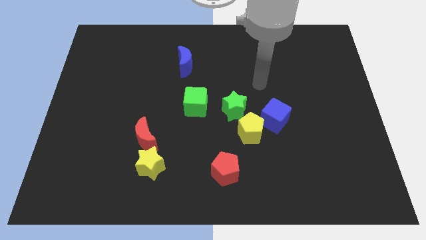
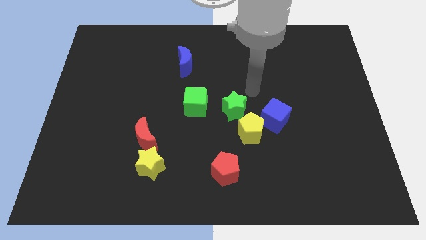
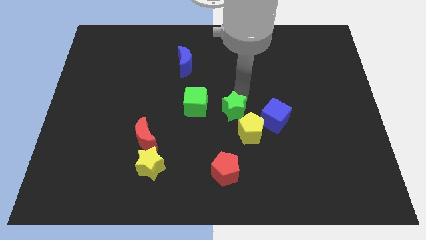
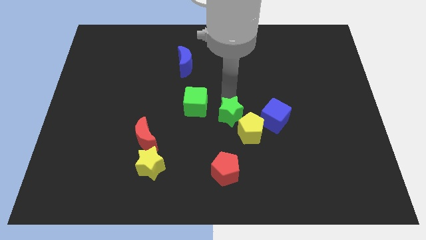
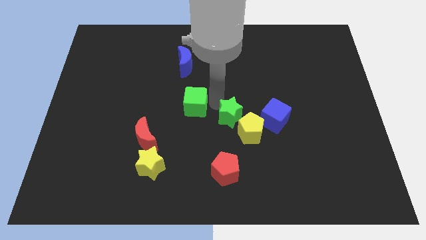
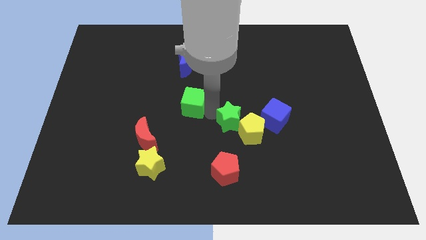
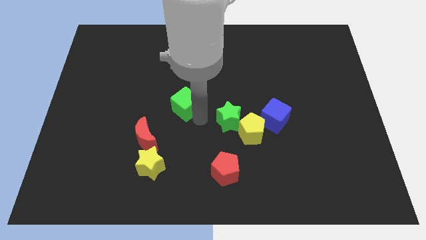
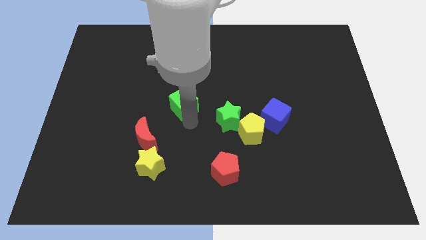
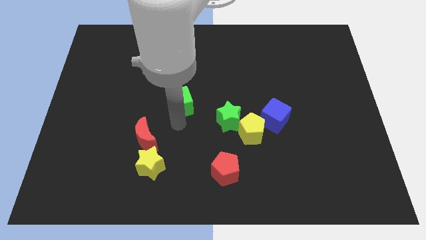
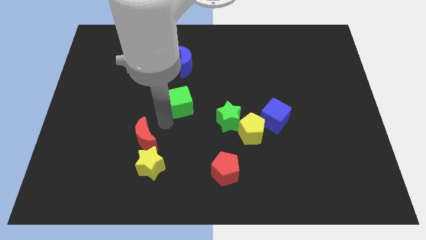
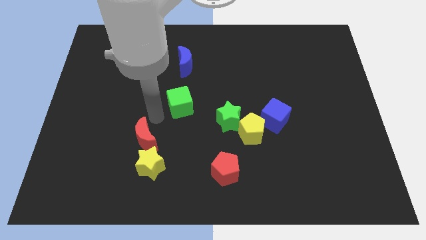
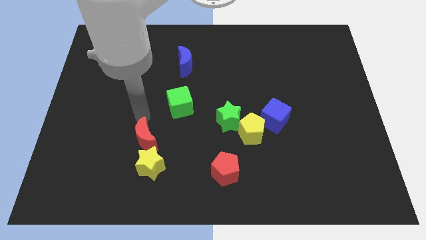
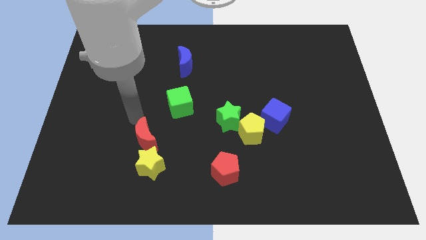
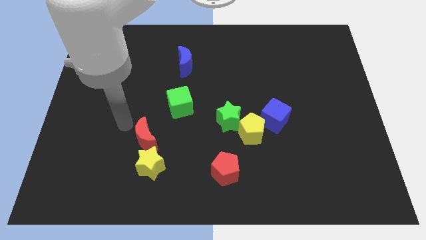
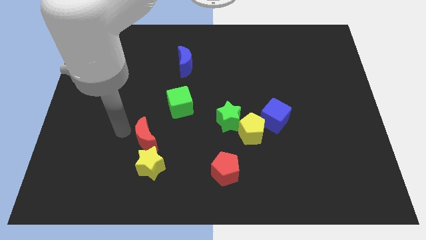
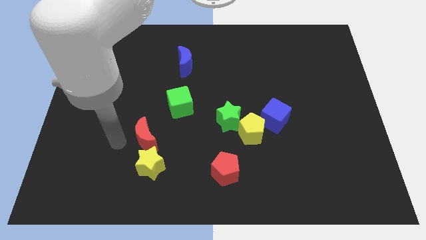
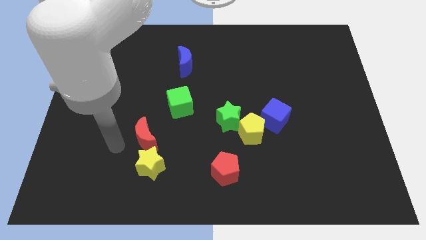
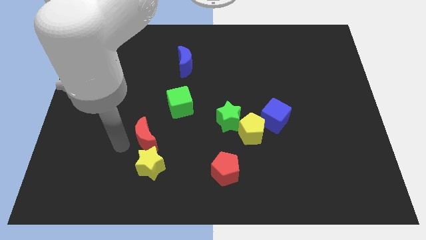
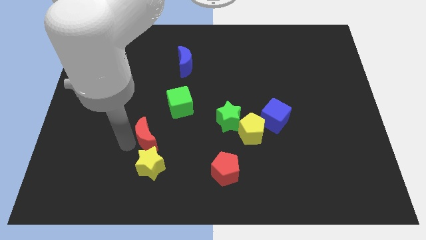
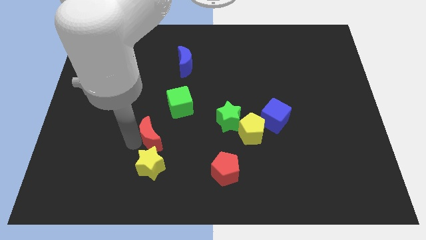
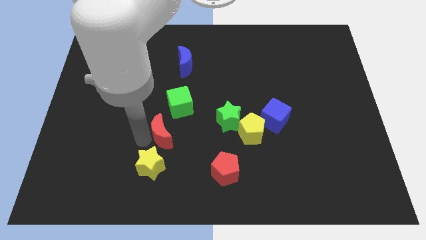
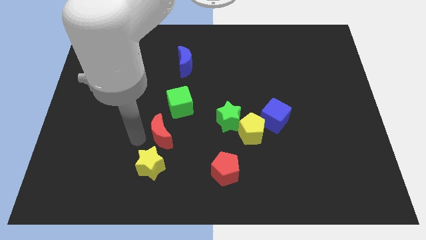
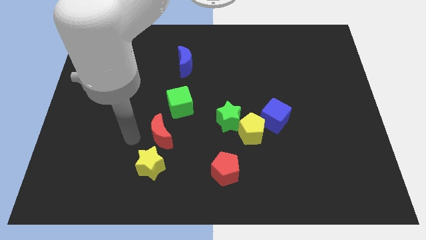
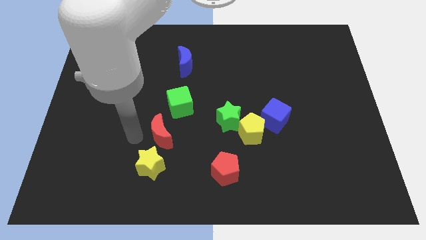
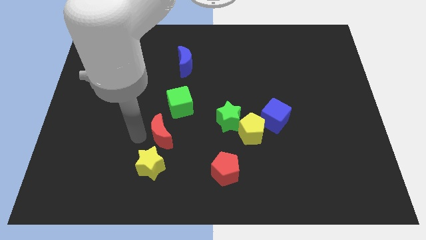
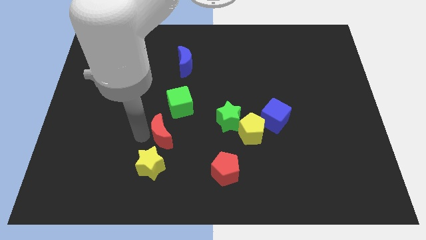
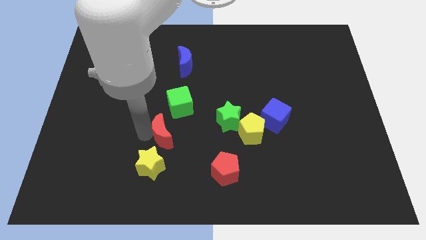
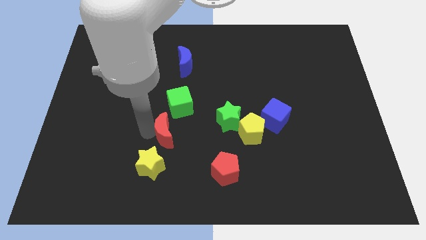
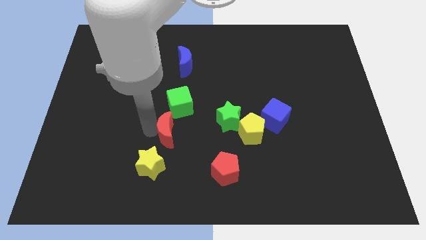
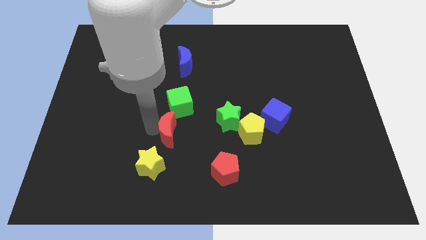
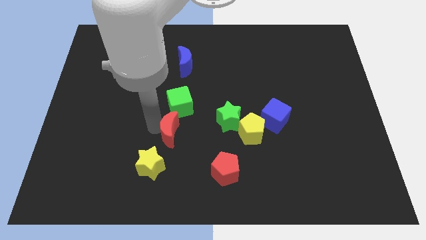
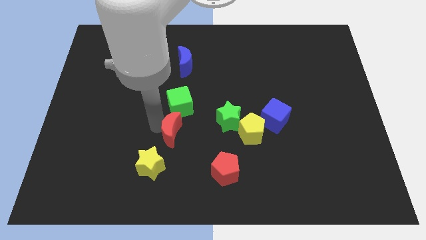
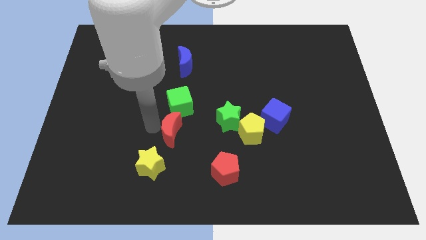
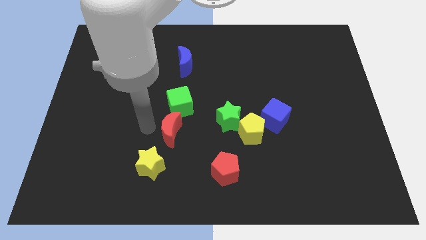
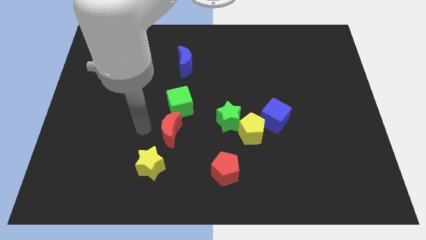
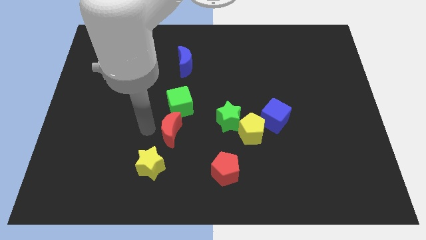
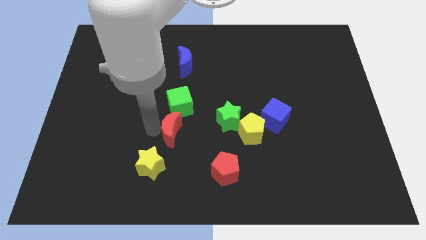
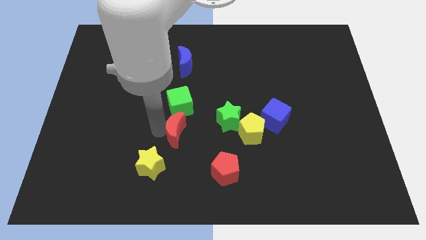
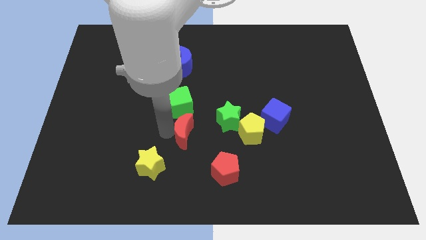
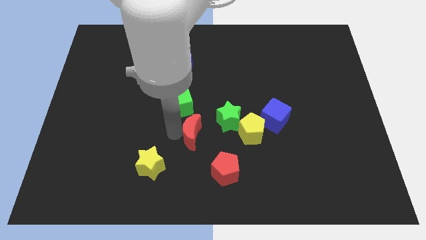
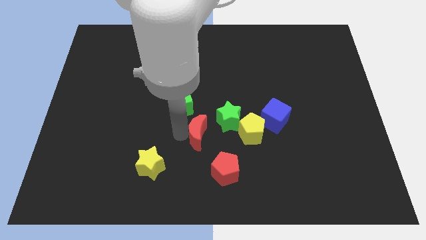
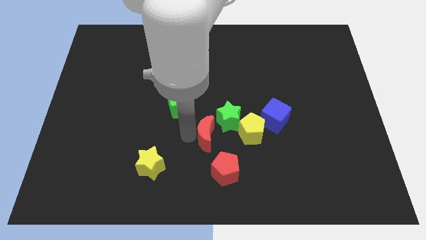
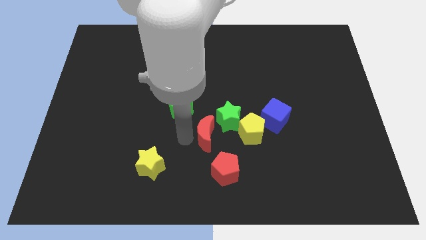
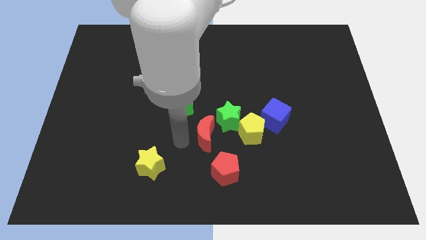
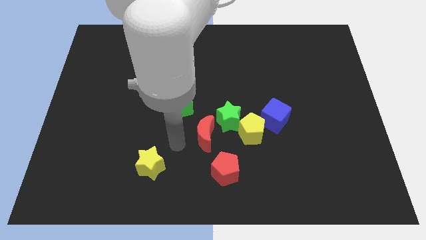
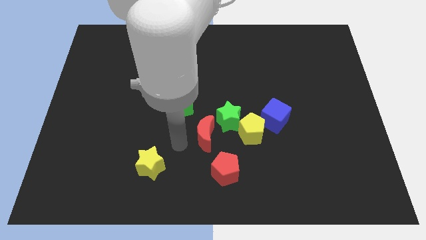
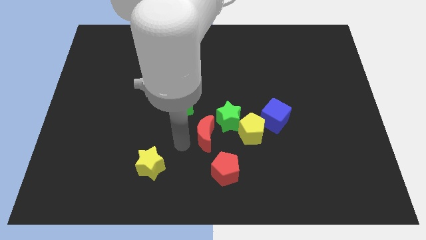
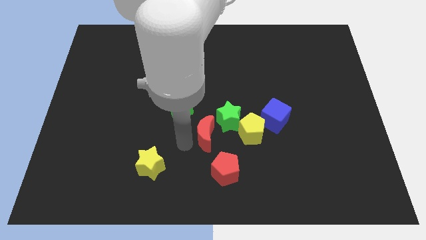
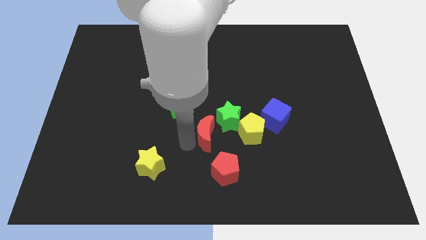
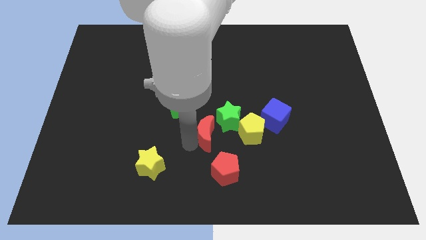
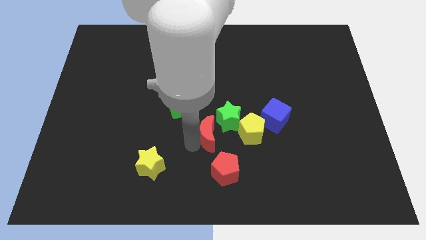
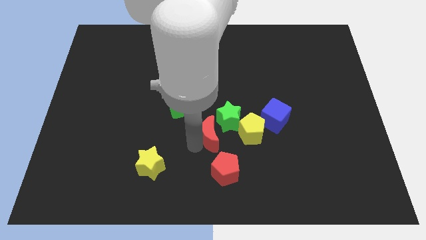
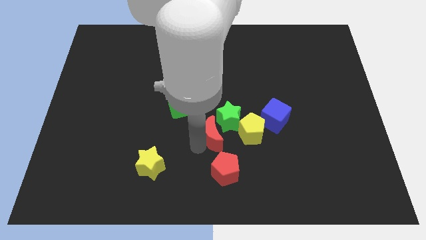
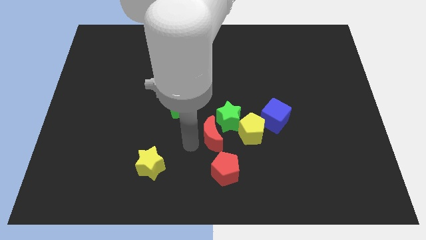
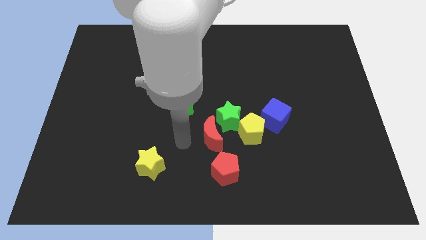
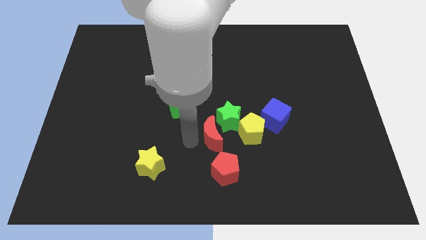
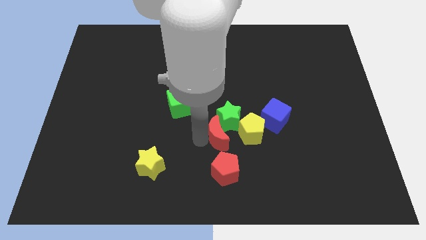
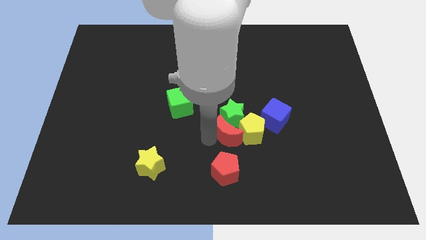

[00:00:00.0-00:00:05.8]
push the red moon towards the yellow pentagon

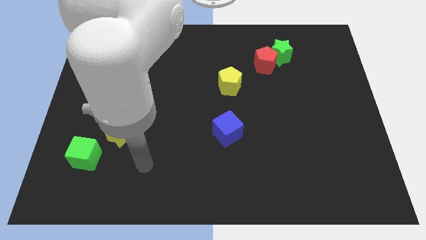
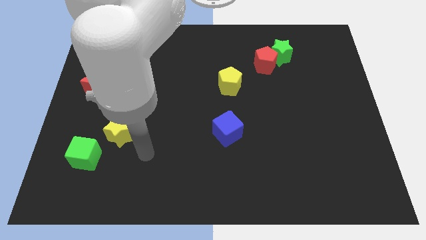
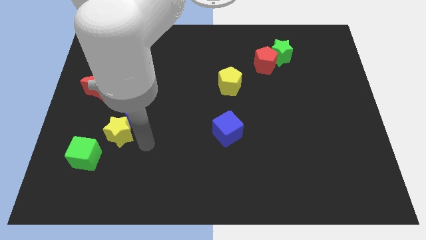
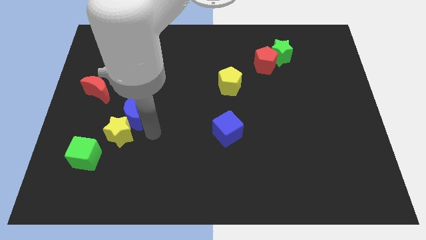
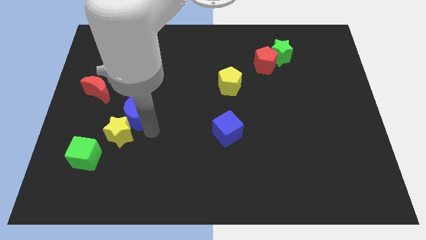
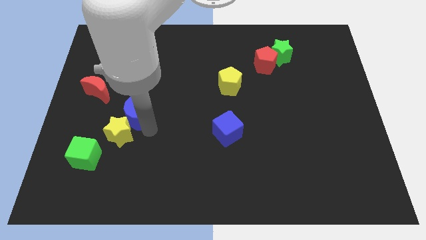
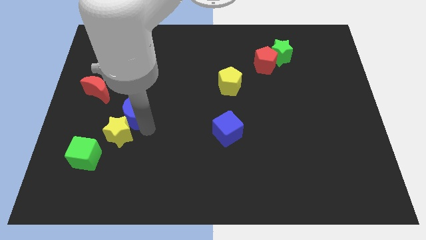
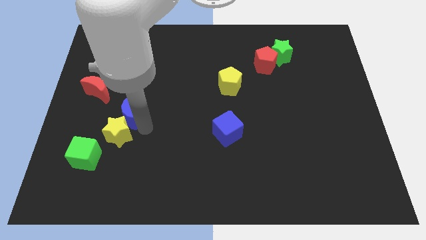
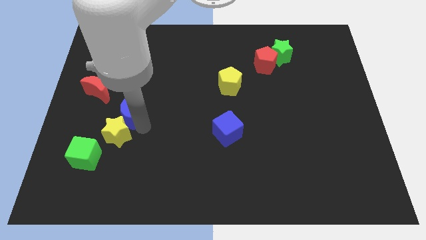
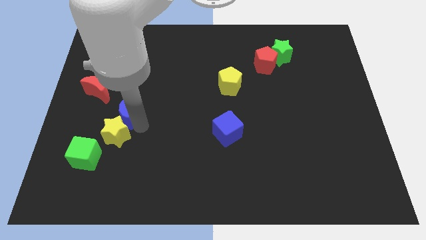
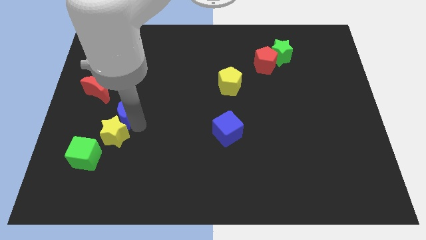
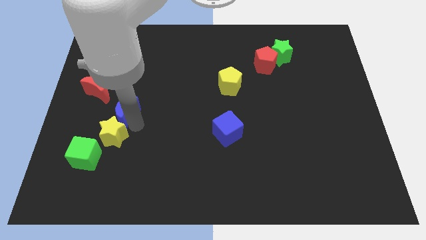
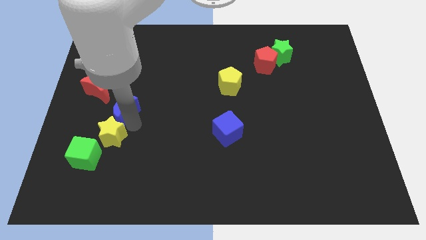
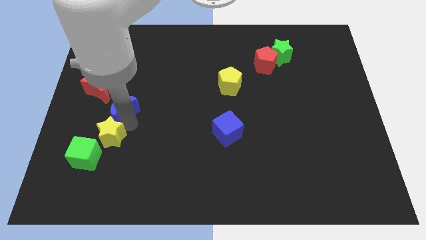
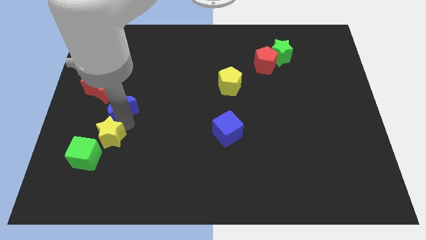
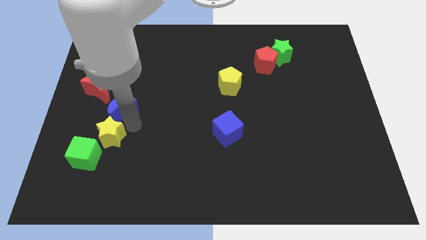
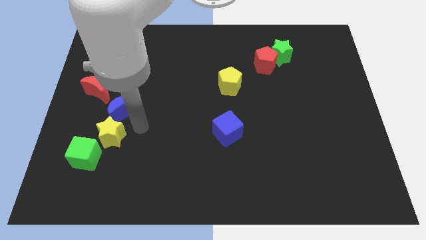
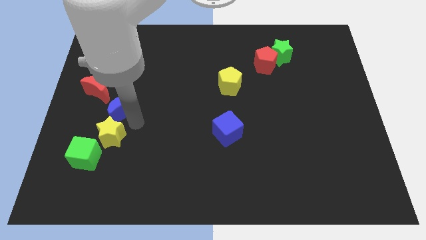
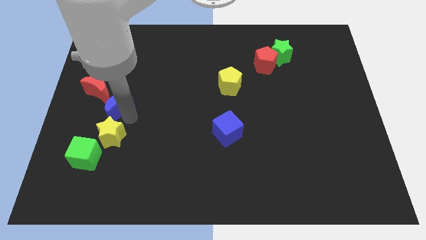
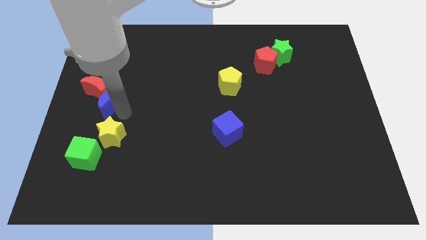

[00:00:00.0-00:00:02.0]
slide the blue moon to the red moon
